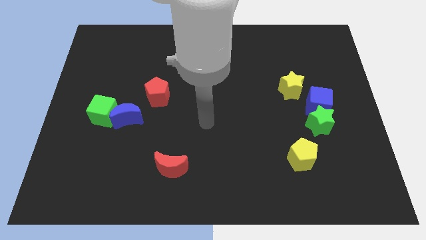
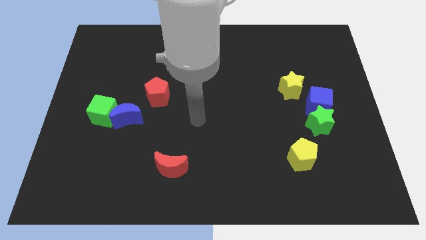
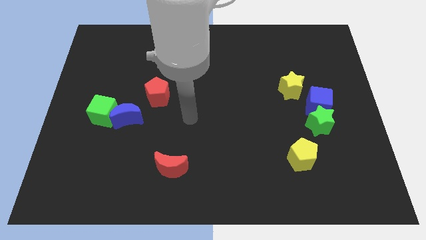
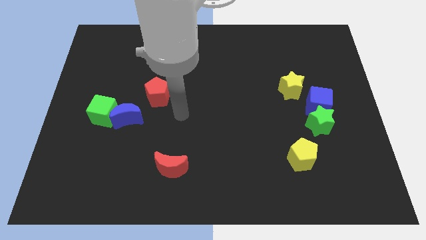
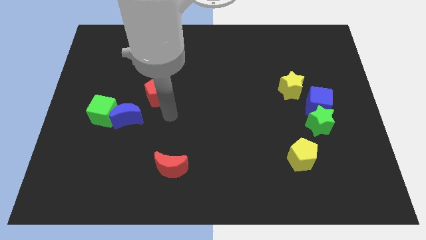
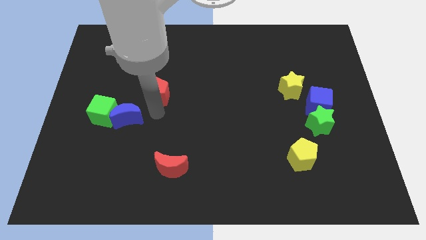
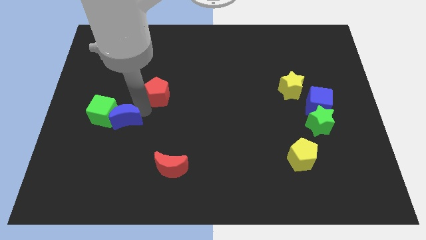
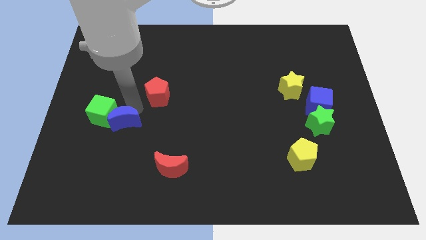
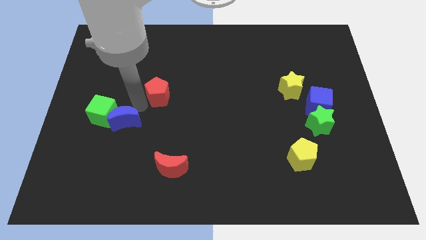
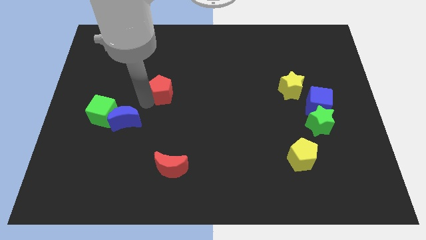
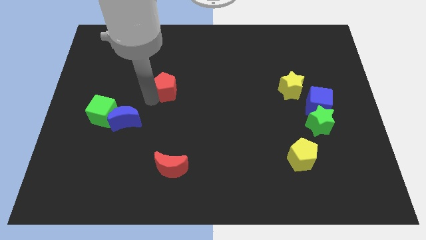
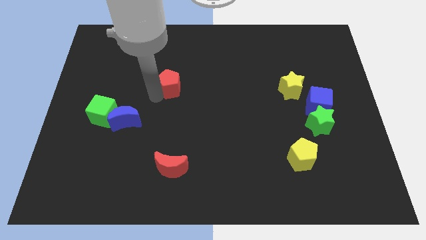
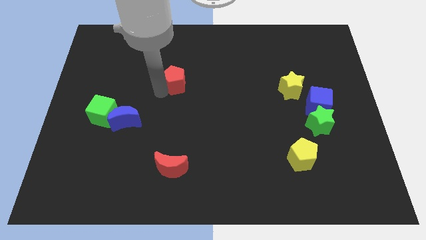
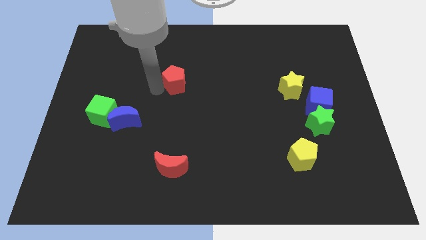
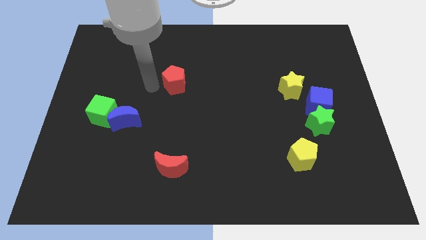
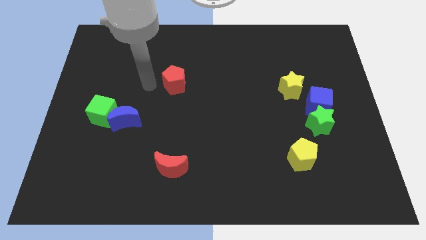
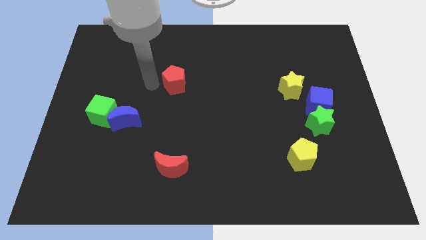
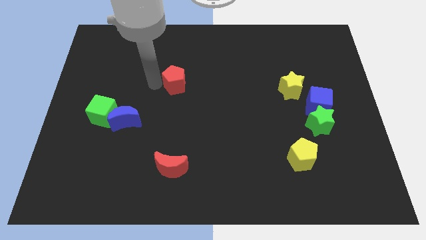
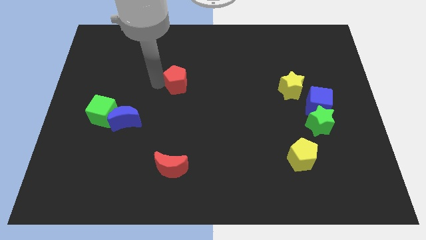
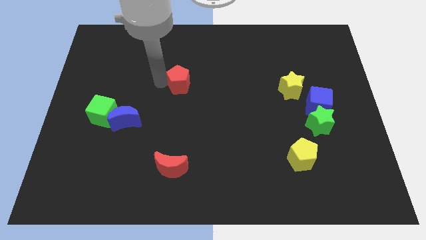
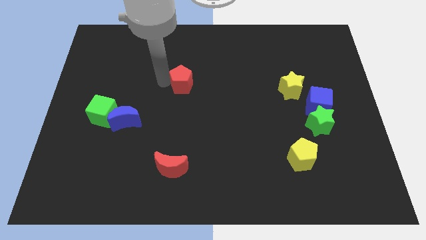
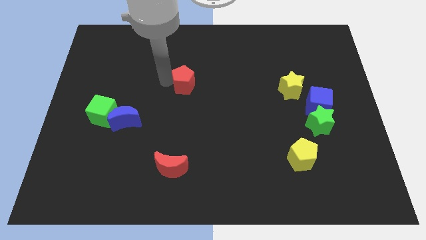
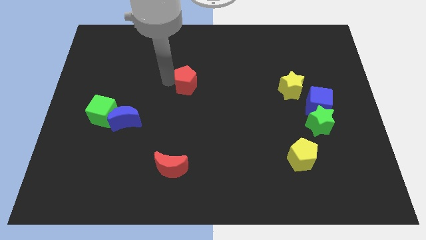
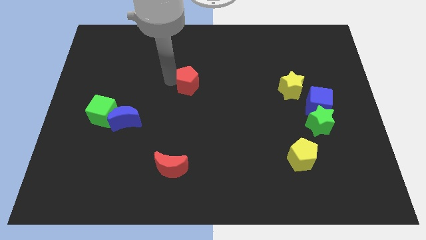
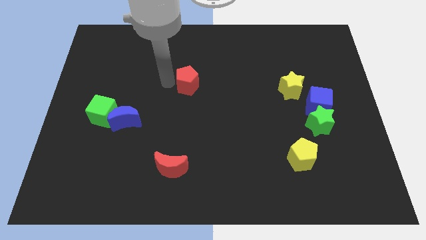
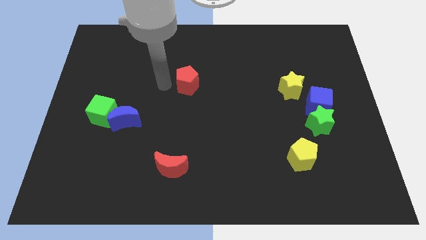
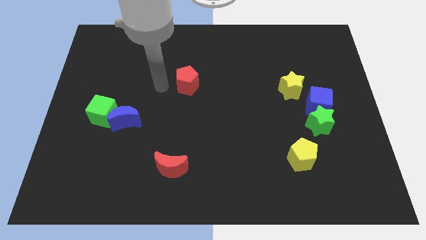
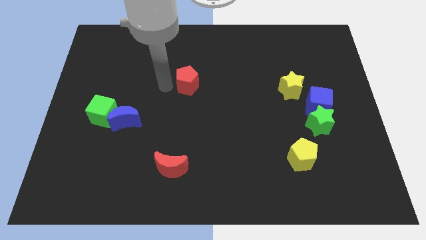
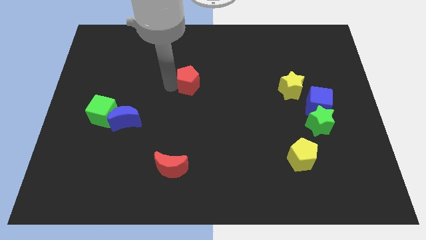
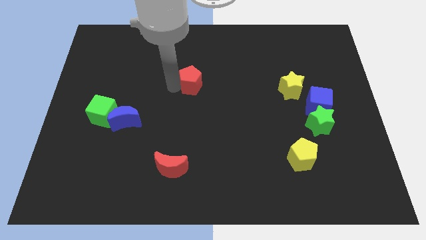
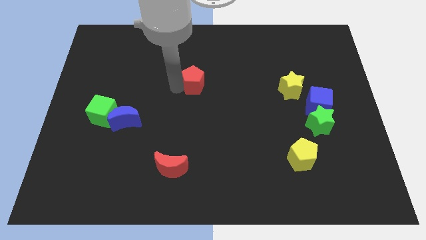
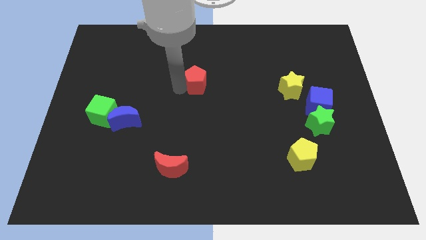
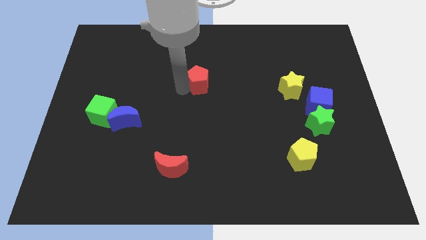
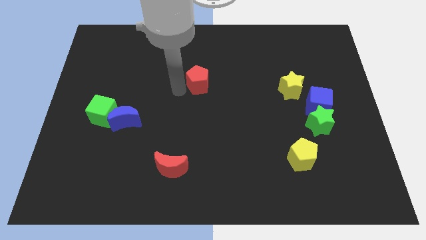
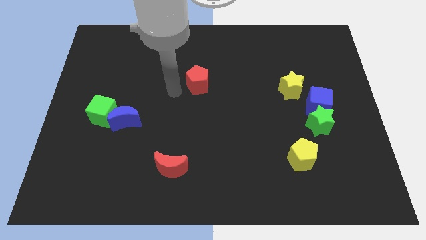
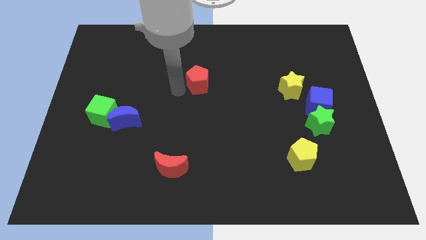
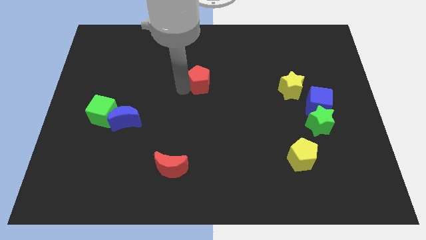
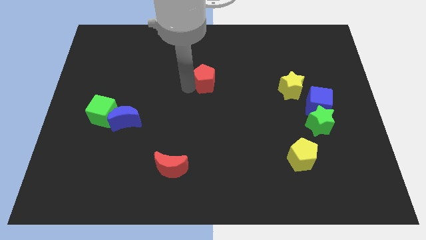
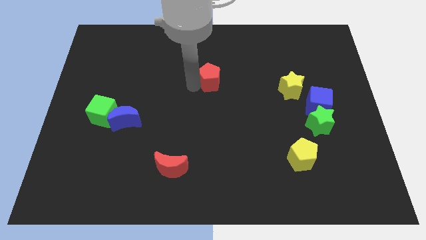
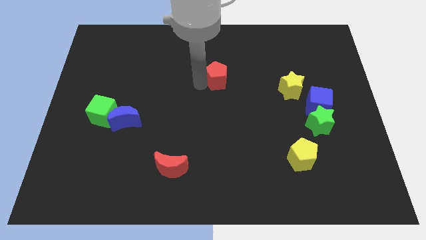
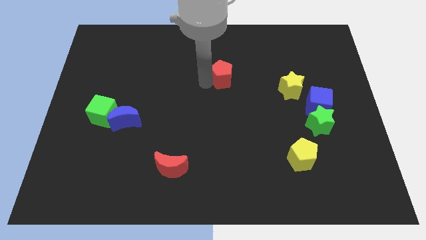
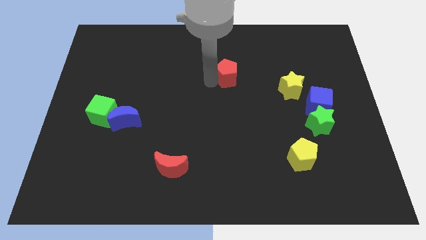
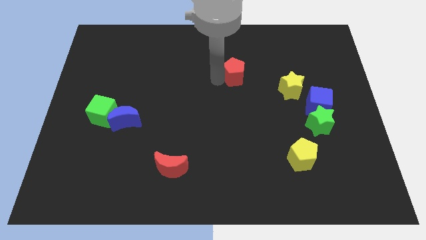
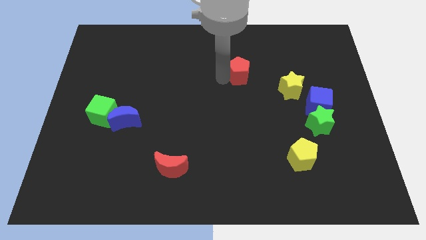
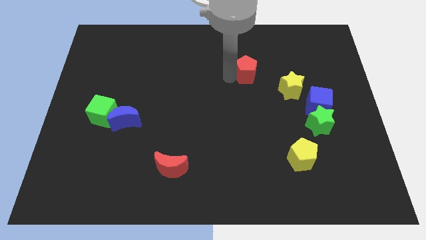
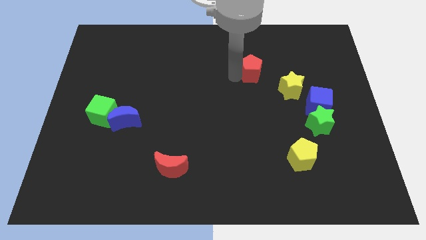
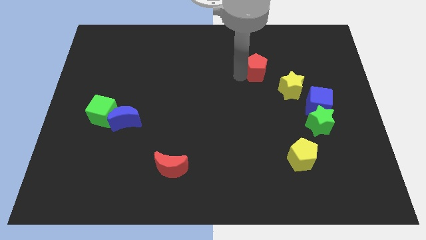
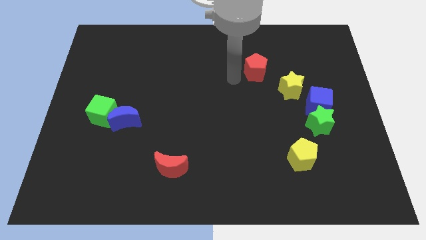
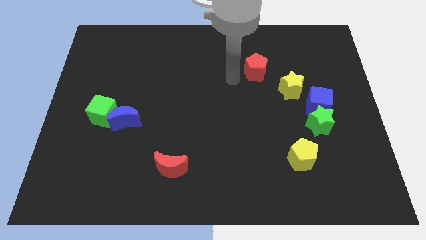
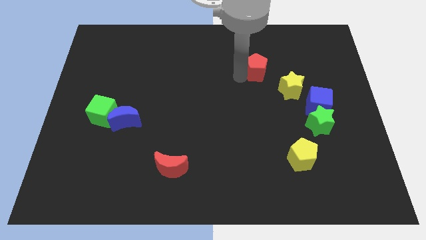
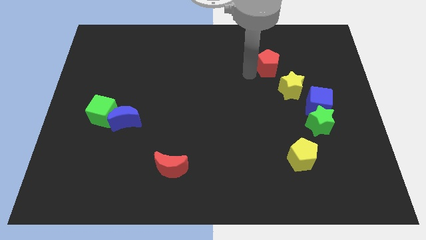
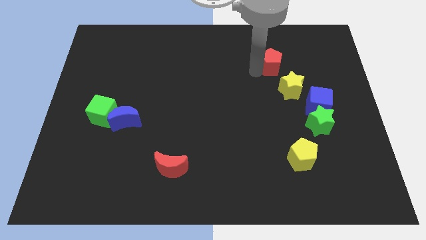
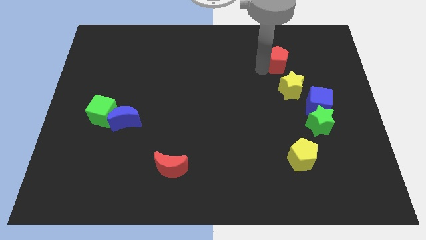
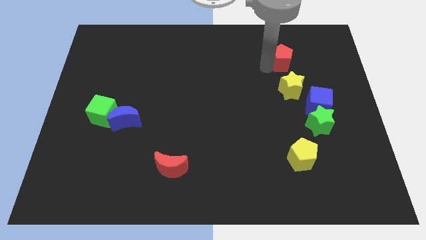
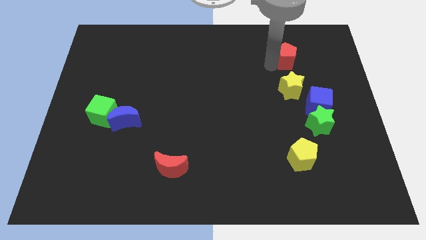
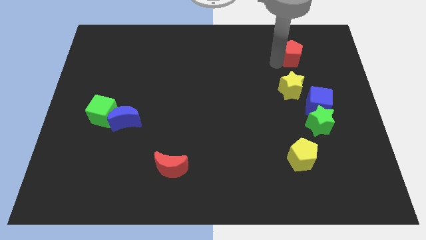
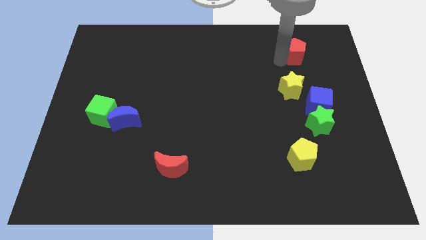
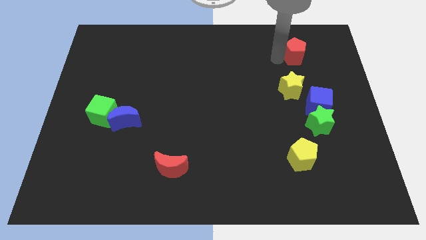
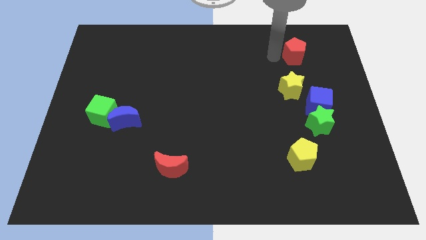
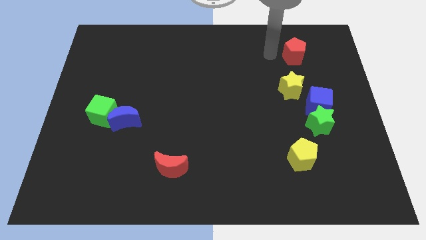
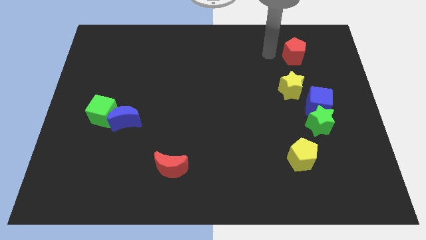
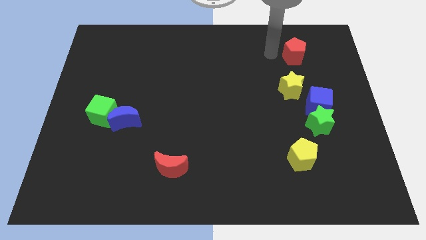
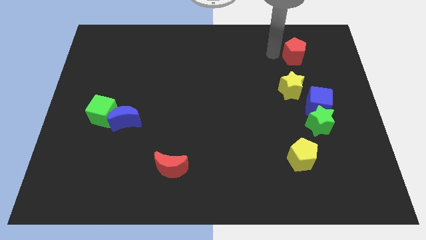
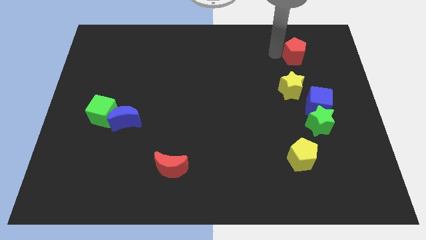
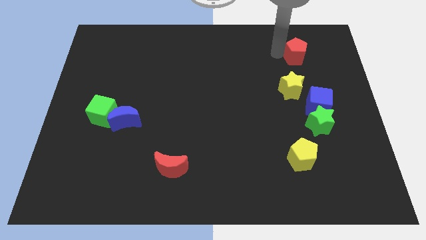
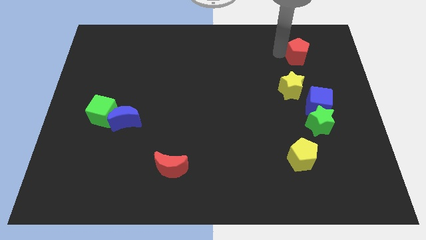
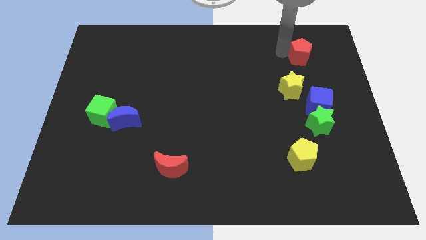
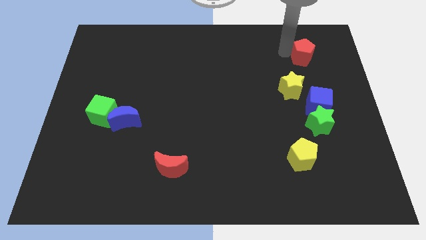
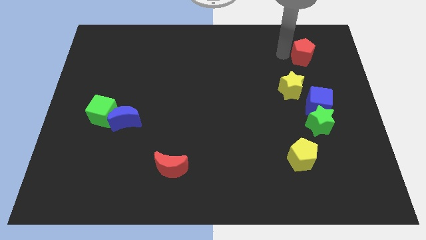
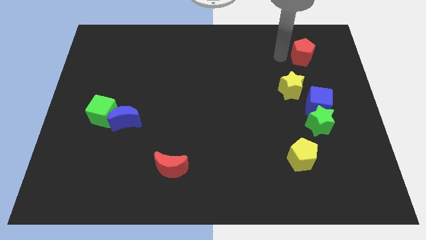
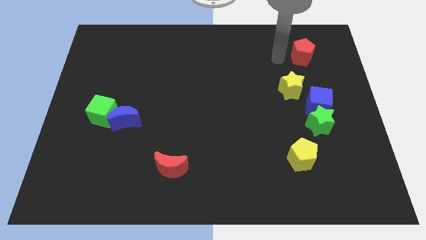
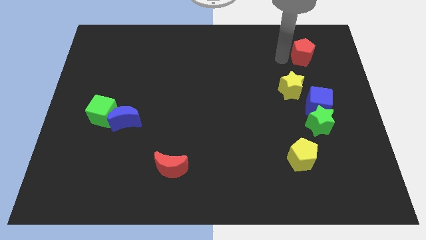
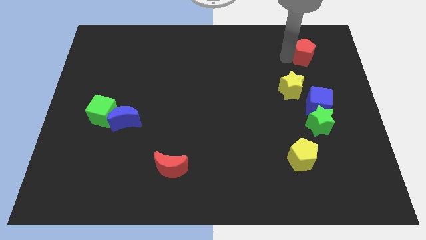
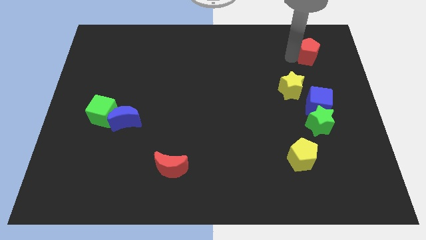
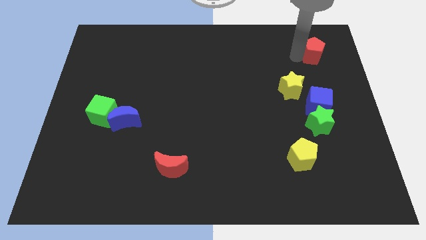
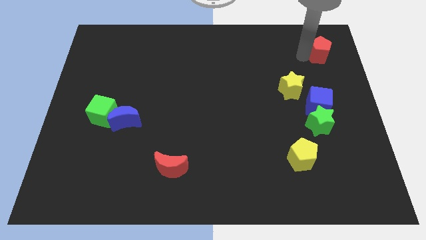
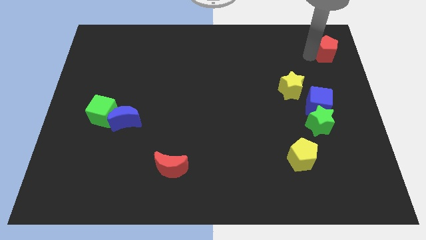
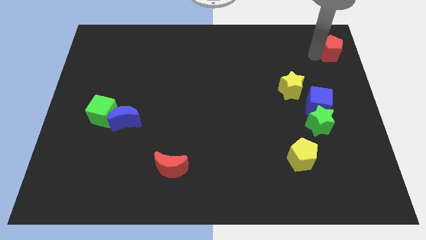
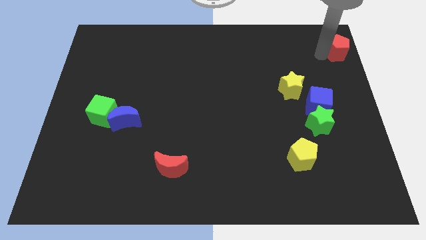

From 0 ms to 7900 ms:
move the red pentagon to the top right
